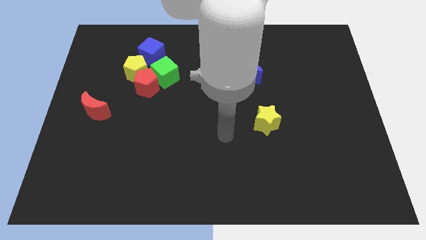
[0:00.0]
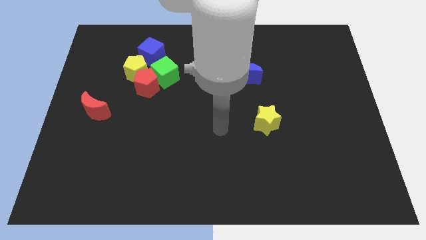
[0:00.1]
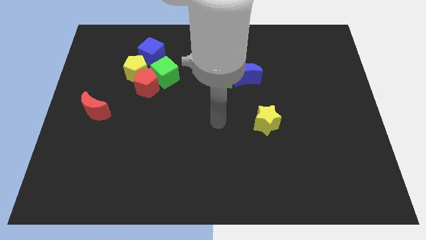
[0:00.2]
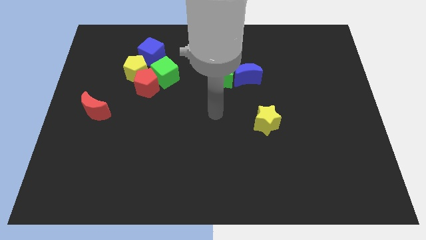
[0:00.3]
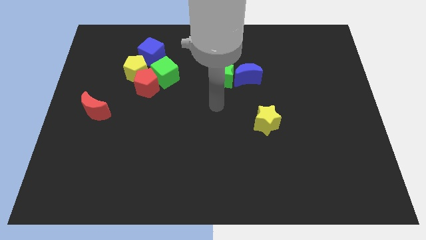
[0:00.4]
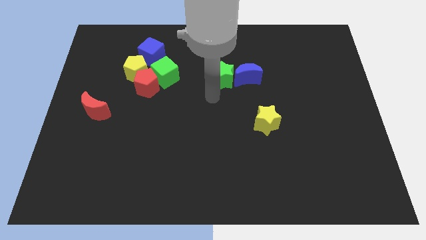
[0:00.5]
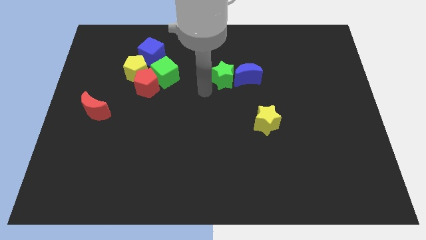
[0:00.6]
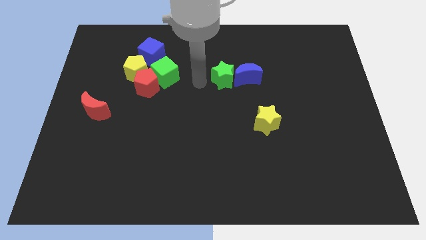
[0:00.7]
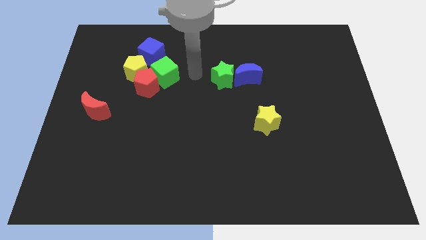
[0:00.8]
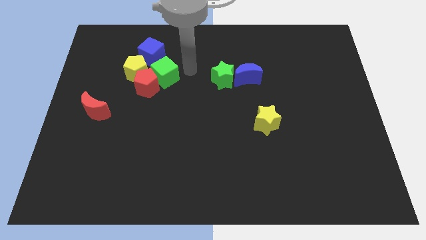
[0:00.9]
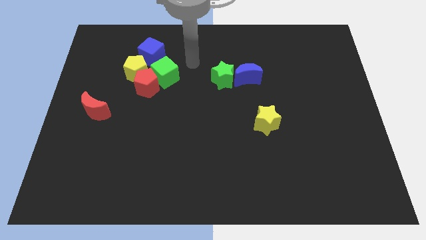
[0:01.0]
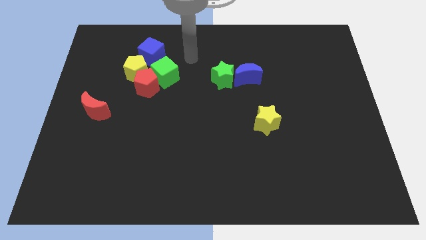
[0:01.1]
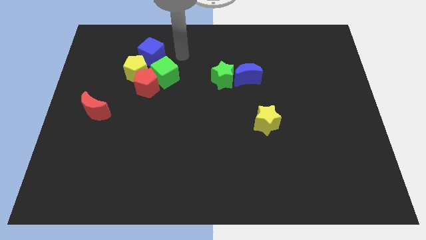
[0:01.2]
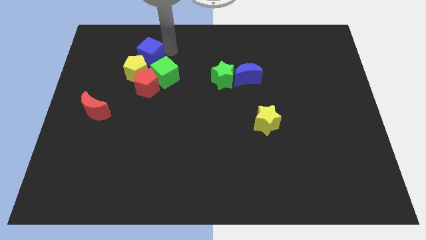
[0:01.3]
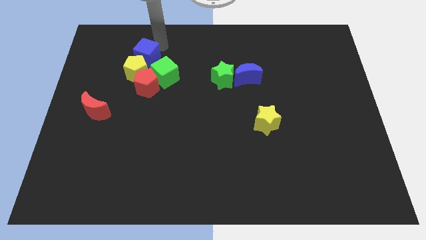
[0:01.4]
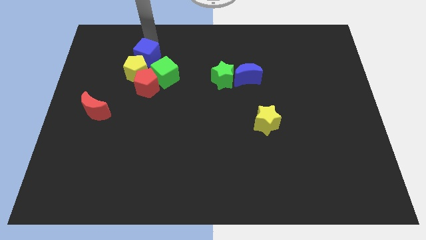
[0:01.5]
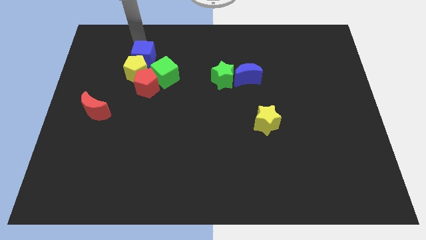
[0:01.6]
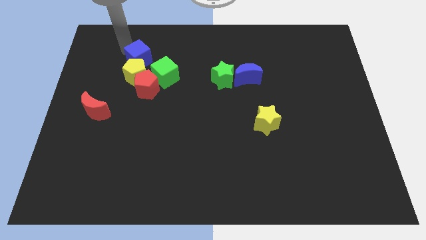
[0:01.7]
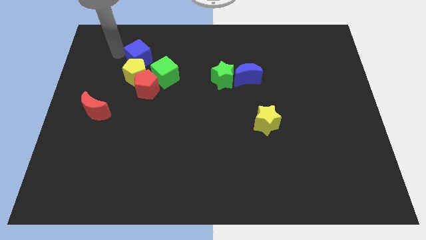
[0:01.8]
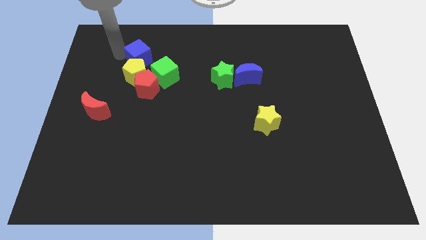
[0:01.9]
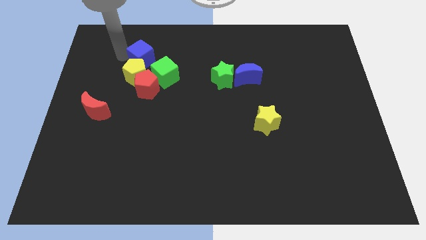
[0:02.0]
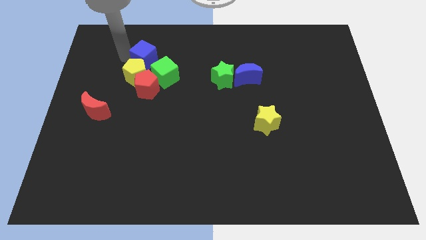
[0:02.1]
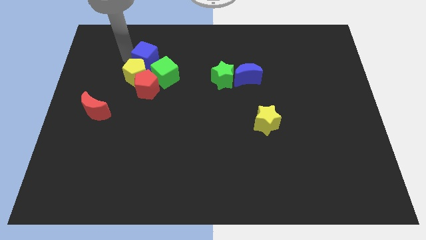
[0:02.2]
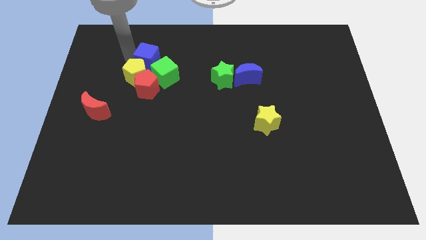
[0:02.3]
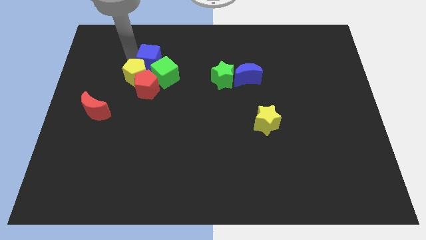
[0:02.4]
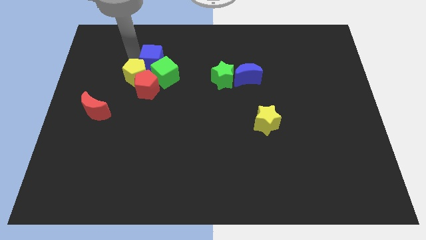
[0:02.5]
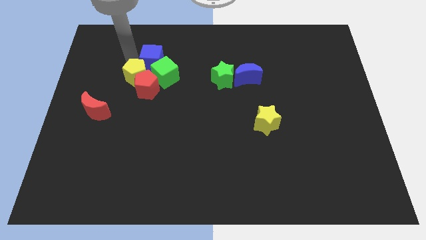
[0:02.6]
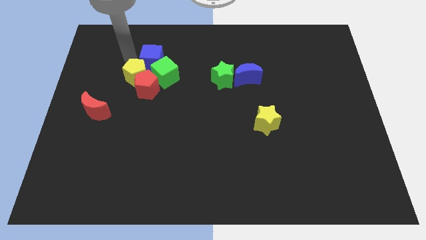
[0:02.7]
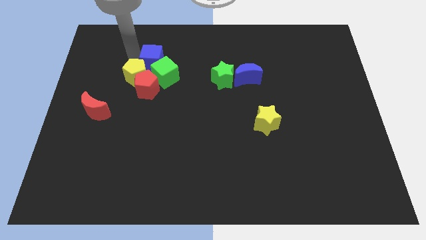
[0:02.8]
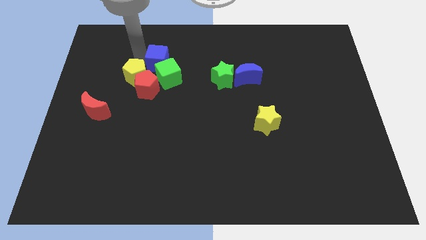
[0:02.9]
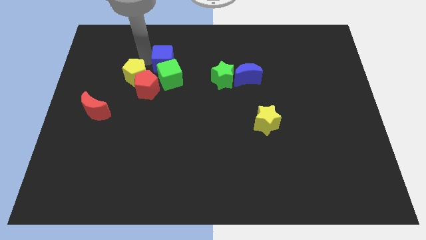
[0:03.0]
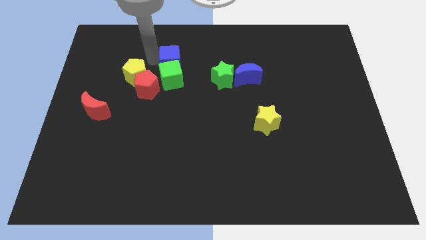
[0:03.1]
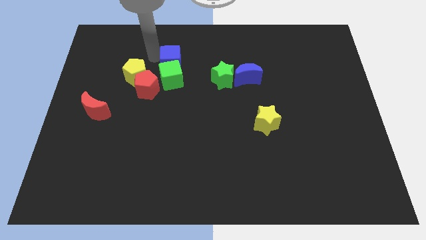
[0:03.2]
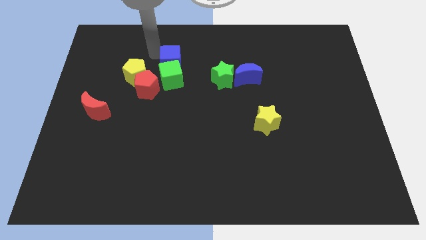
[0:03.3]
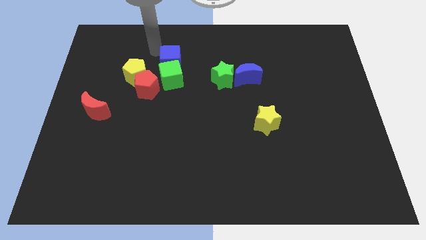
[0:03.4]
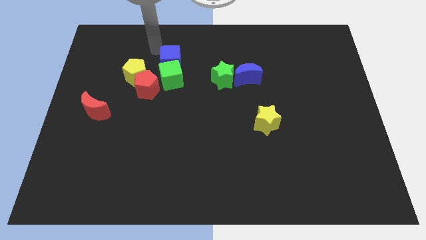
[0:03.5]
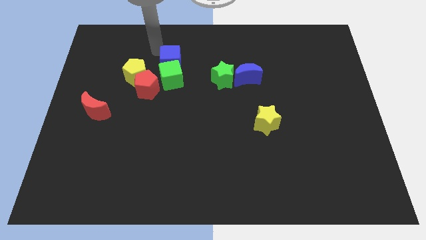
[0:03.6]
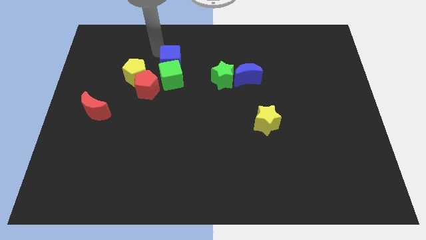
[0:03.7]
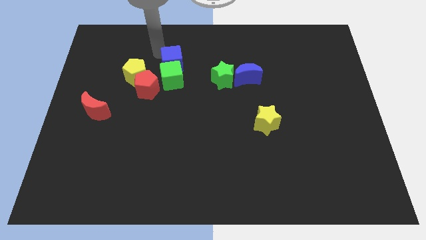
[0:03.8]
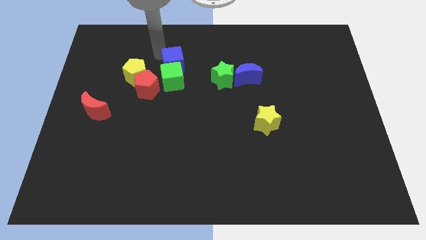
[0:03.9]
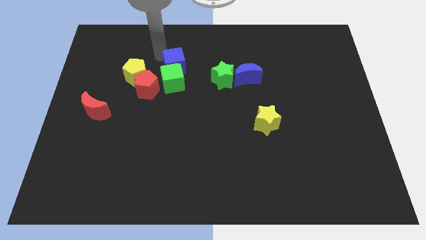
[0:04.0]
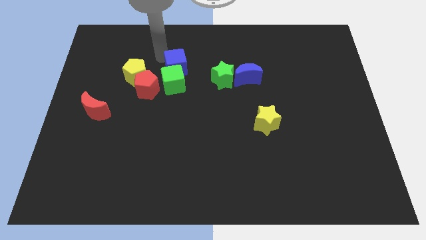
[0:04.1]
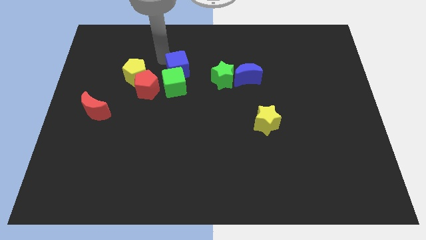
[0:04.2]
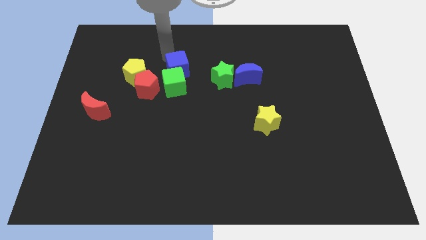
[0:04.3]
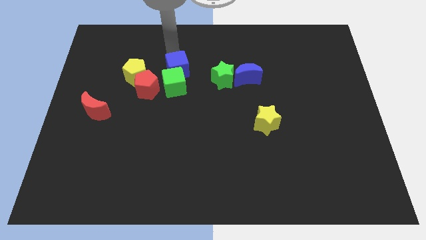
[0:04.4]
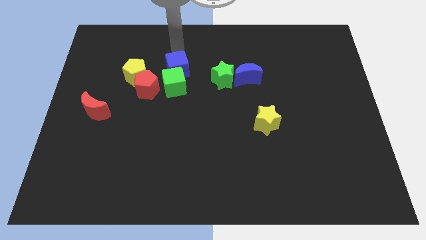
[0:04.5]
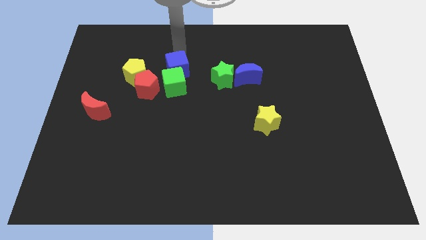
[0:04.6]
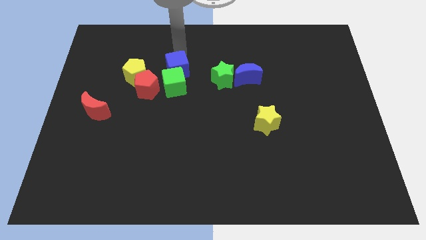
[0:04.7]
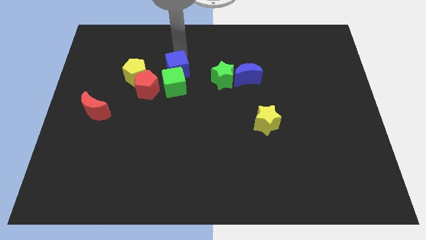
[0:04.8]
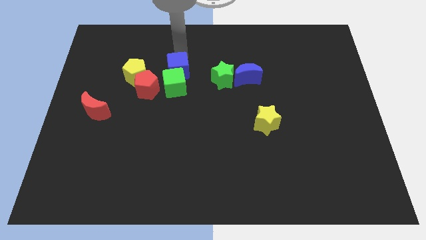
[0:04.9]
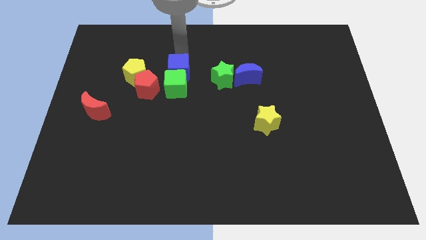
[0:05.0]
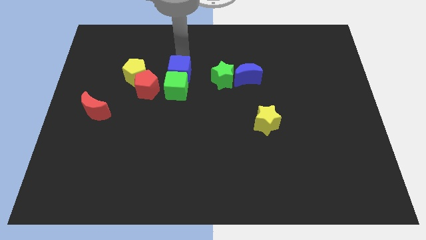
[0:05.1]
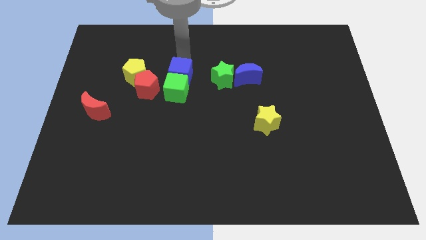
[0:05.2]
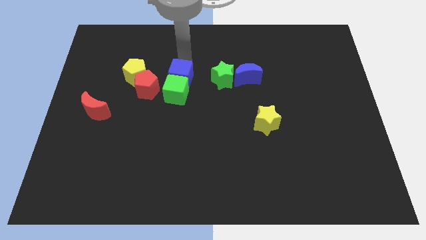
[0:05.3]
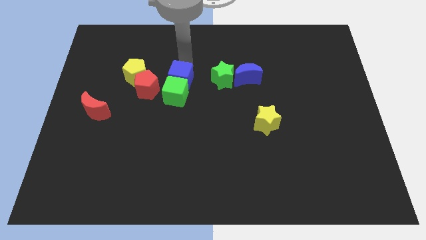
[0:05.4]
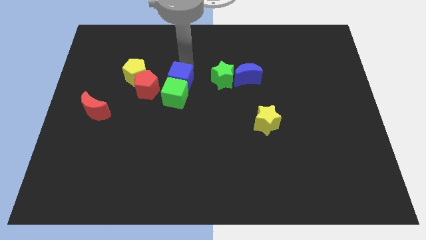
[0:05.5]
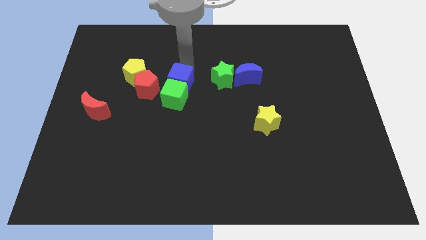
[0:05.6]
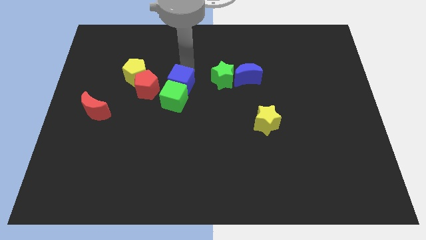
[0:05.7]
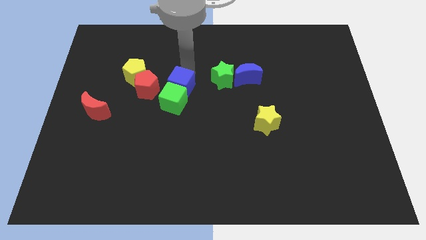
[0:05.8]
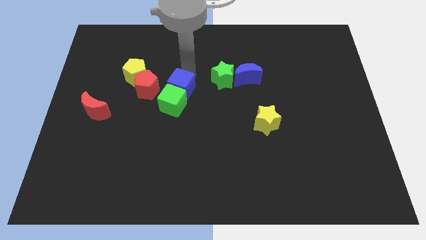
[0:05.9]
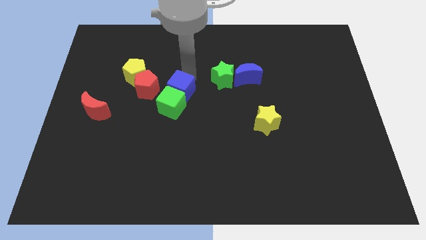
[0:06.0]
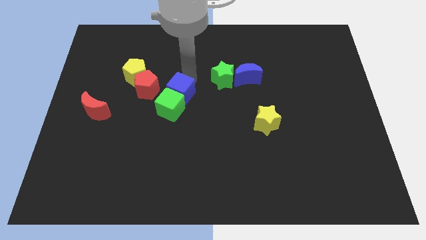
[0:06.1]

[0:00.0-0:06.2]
slide the blue cube to the bottom right side of the red pentagon

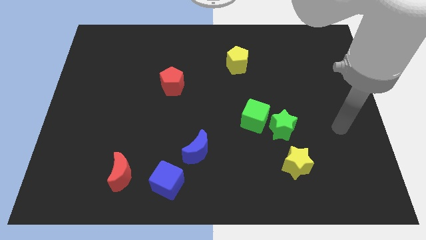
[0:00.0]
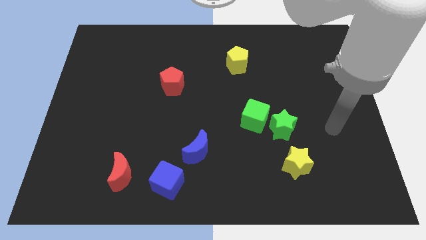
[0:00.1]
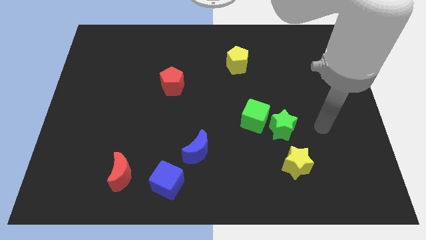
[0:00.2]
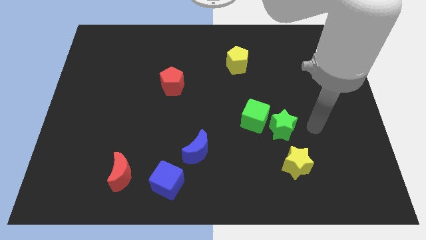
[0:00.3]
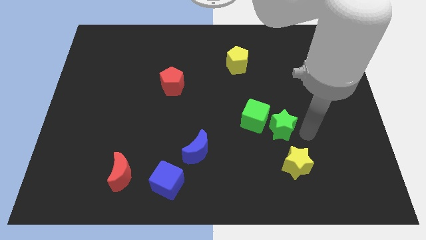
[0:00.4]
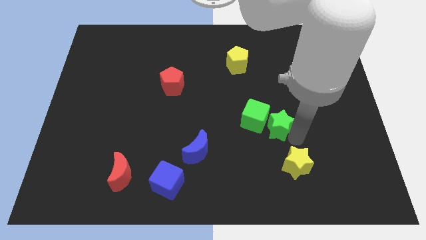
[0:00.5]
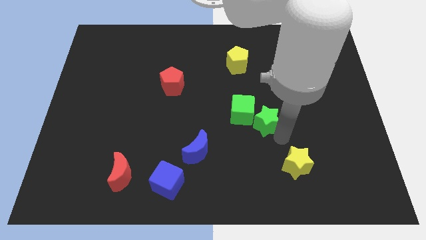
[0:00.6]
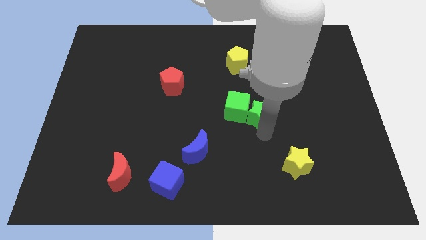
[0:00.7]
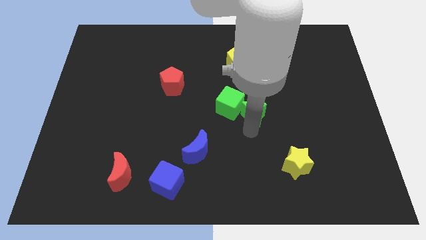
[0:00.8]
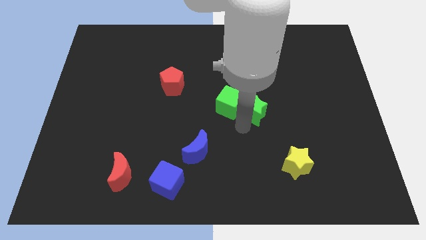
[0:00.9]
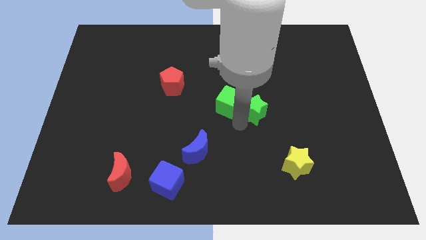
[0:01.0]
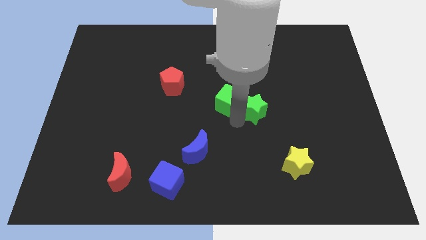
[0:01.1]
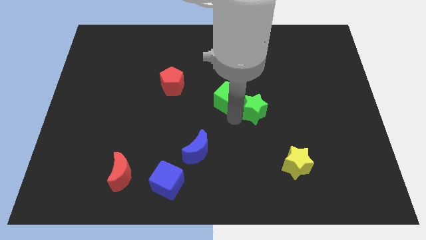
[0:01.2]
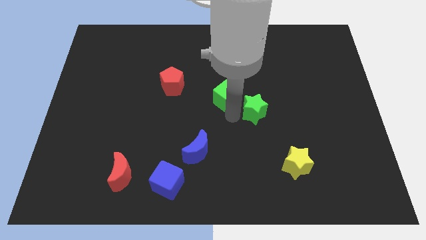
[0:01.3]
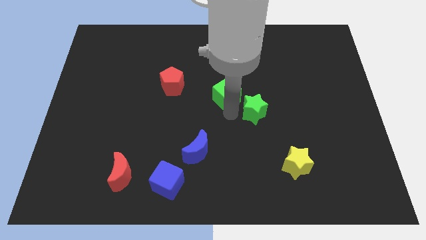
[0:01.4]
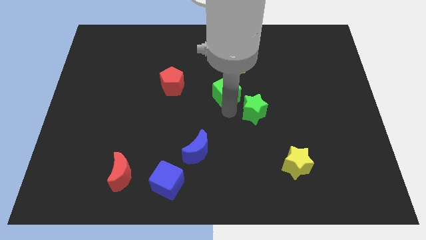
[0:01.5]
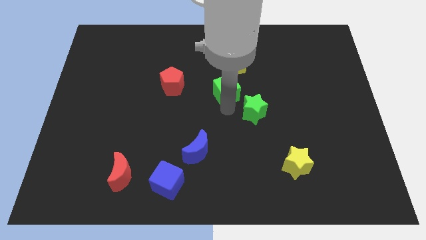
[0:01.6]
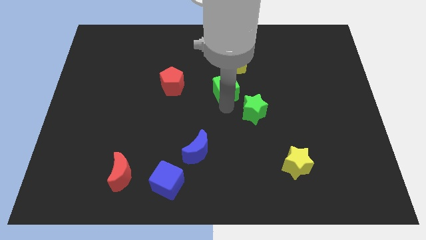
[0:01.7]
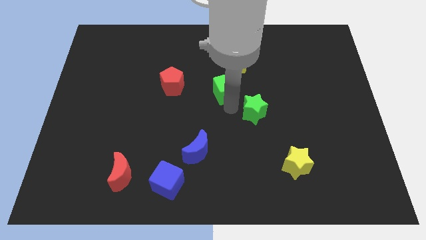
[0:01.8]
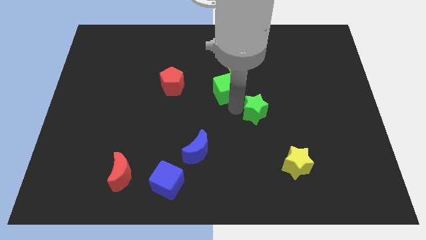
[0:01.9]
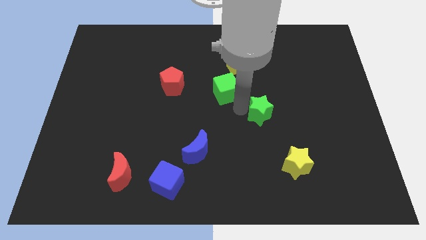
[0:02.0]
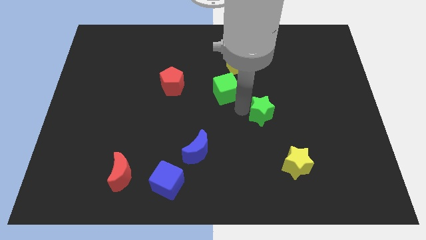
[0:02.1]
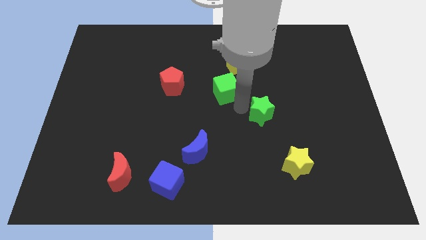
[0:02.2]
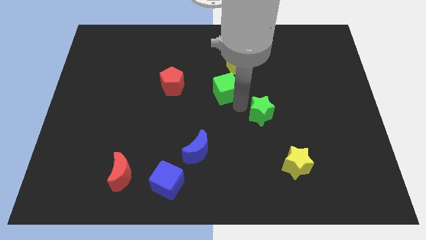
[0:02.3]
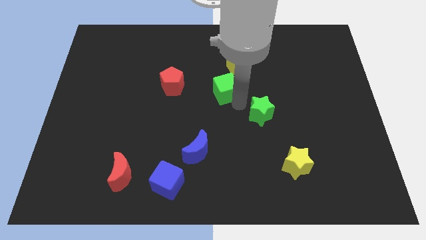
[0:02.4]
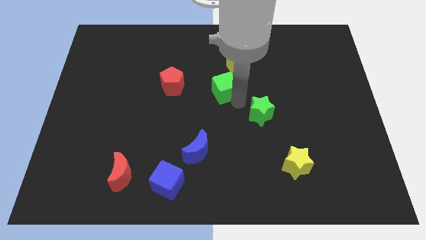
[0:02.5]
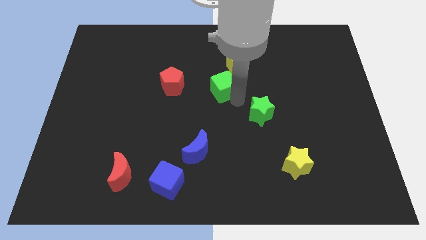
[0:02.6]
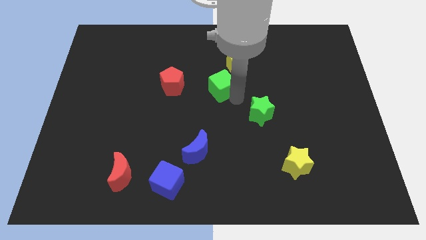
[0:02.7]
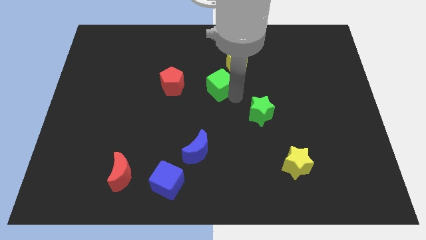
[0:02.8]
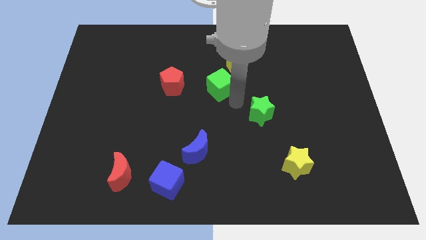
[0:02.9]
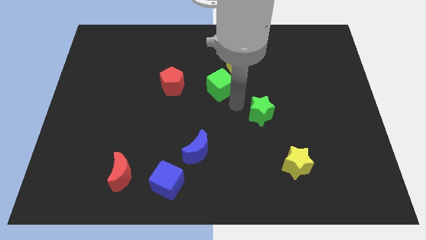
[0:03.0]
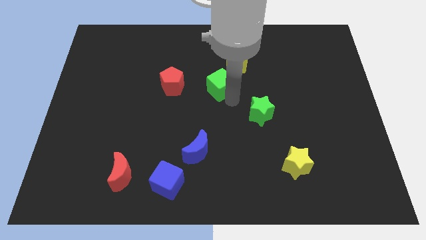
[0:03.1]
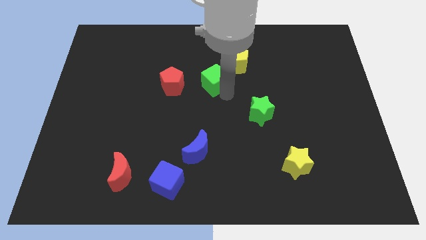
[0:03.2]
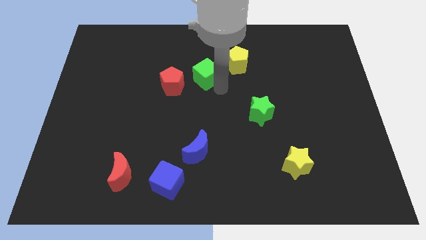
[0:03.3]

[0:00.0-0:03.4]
slide the green cube left of the yellow pentagon
